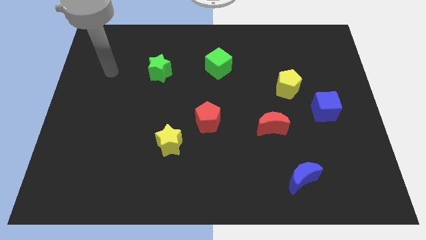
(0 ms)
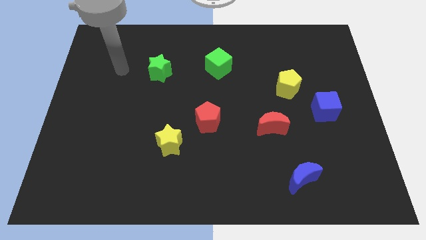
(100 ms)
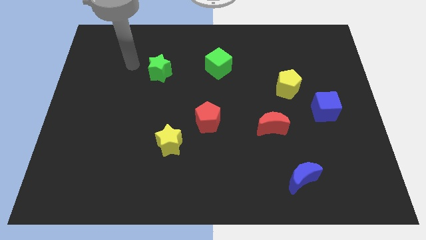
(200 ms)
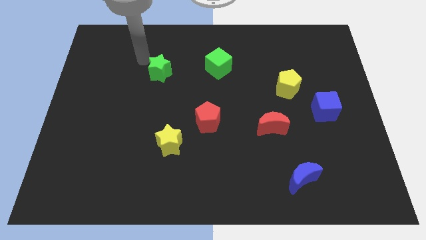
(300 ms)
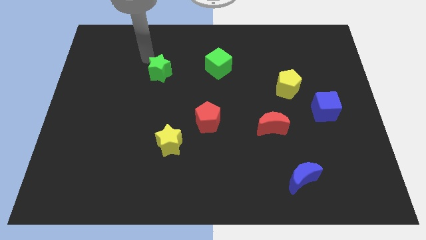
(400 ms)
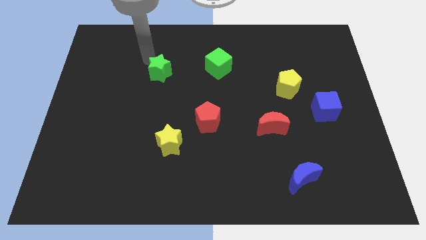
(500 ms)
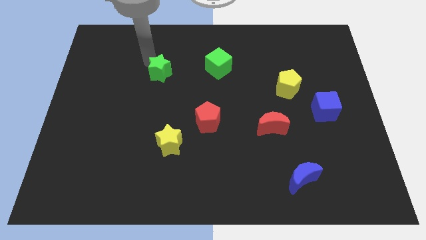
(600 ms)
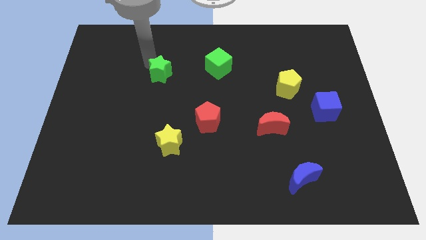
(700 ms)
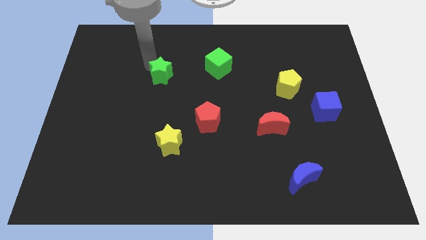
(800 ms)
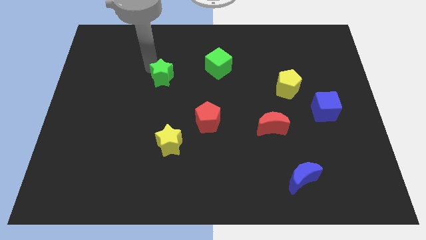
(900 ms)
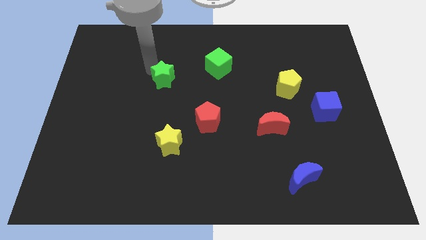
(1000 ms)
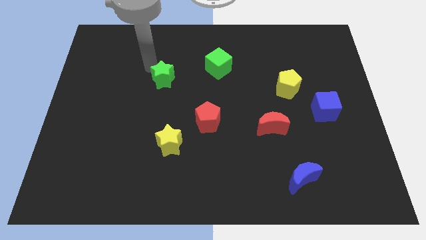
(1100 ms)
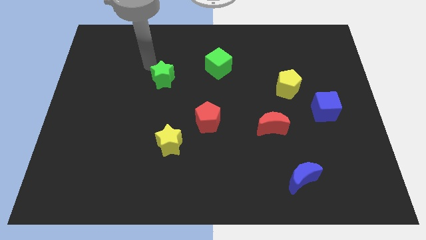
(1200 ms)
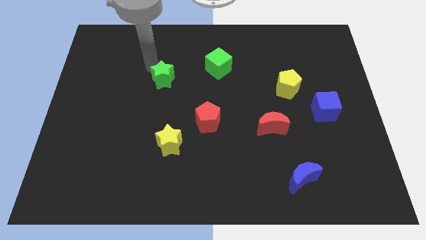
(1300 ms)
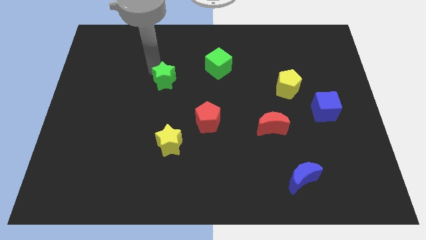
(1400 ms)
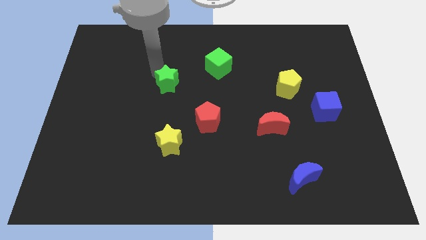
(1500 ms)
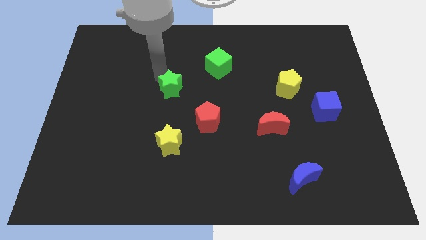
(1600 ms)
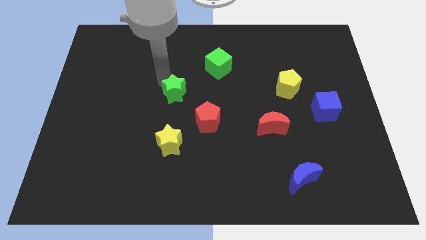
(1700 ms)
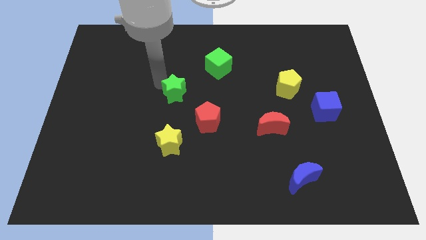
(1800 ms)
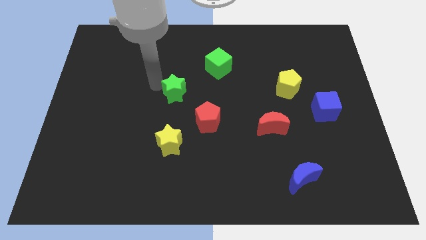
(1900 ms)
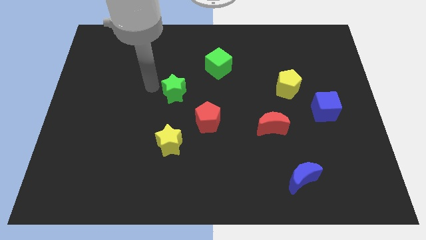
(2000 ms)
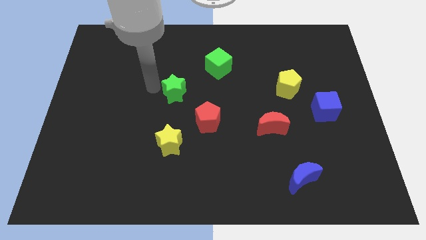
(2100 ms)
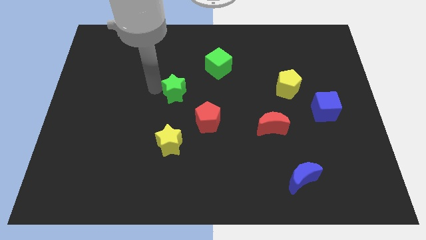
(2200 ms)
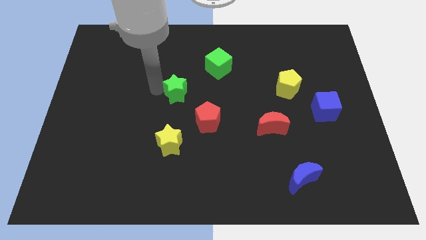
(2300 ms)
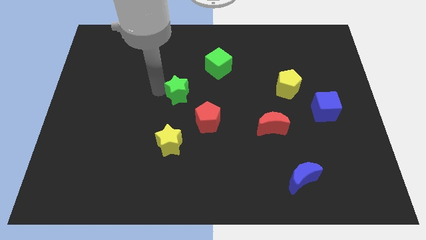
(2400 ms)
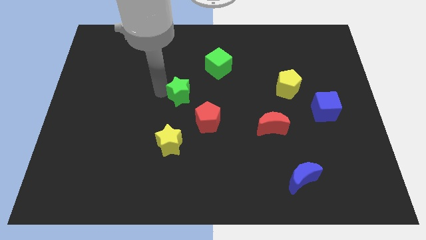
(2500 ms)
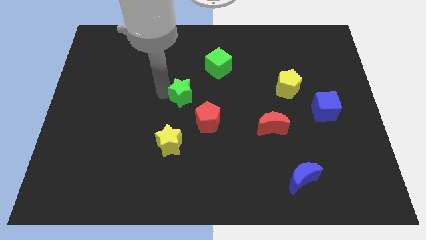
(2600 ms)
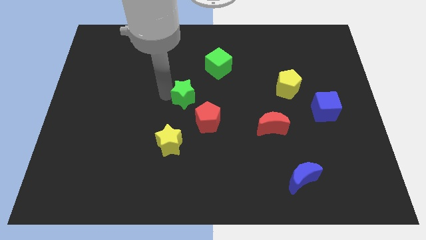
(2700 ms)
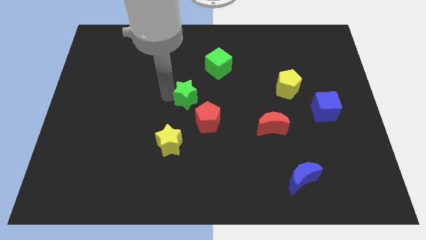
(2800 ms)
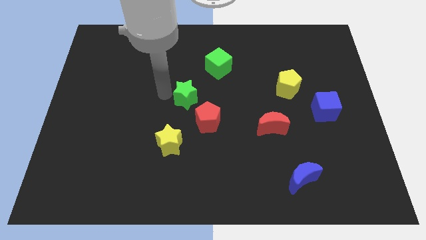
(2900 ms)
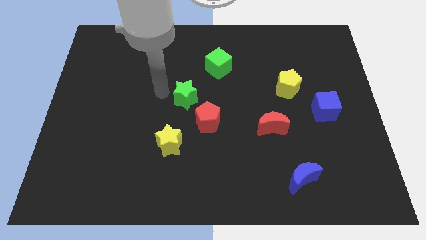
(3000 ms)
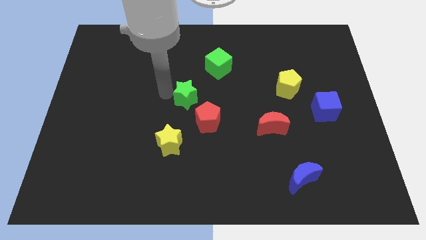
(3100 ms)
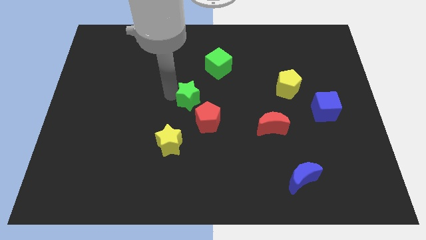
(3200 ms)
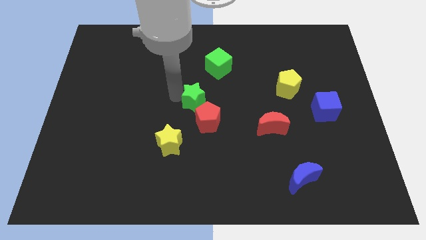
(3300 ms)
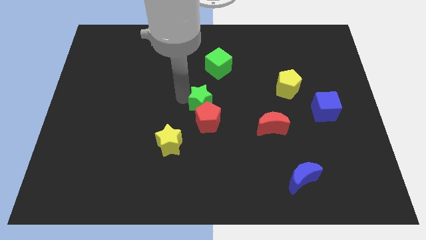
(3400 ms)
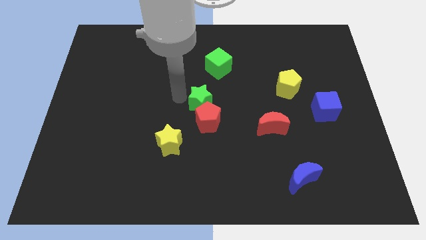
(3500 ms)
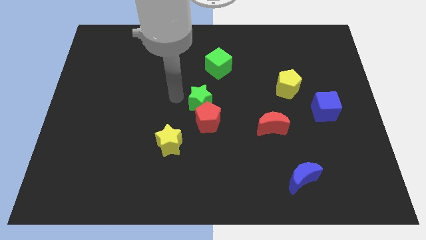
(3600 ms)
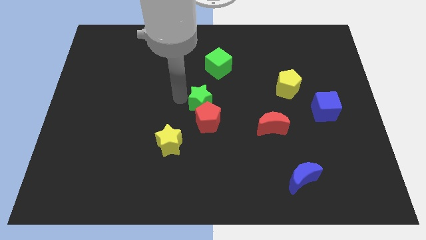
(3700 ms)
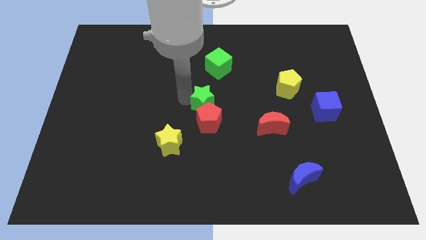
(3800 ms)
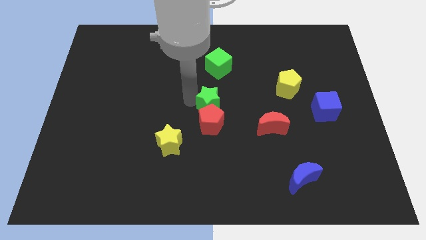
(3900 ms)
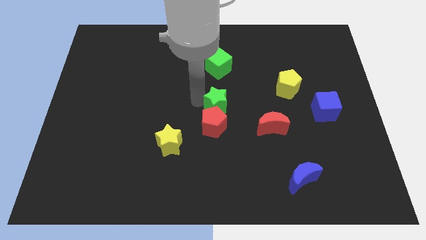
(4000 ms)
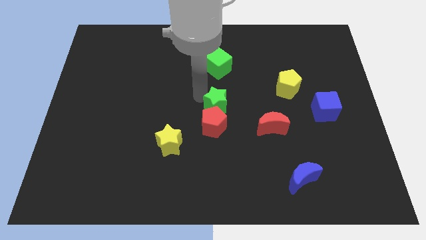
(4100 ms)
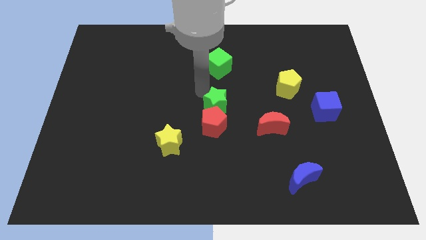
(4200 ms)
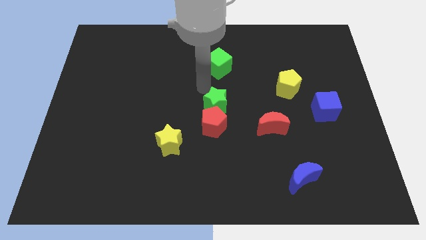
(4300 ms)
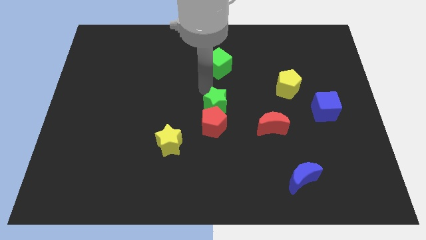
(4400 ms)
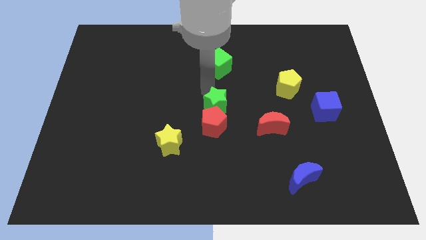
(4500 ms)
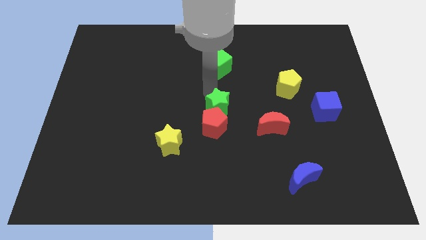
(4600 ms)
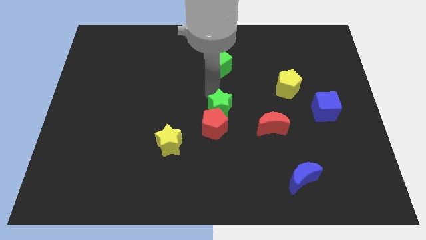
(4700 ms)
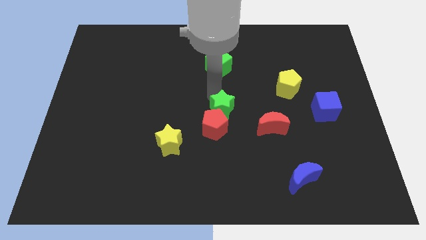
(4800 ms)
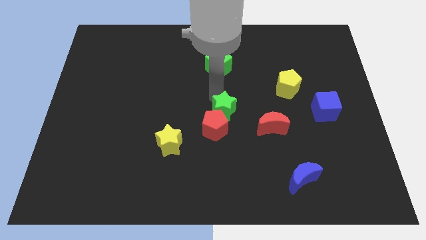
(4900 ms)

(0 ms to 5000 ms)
push the green star down and to the right

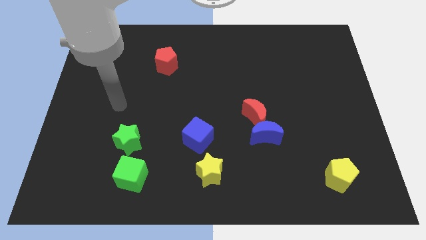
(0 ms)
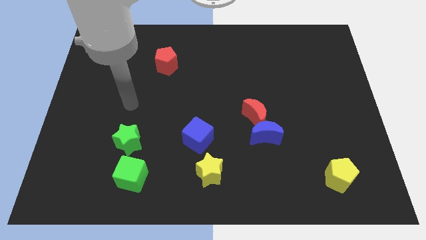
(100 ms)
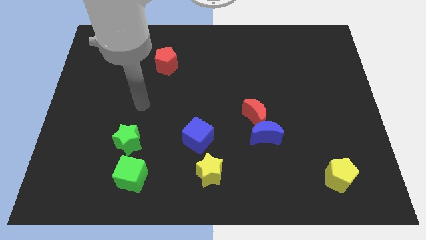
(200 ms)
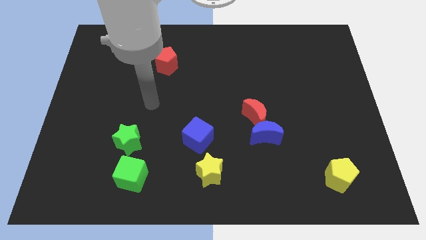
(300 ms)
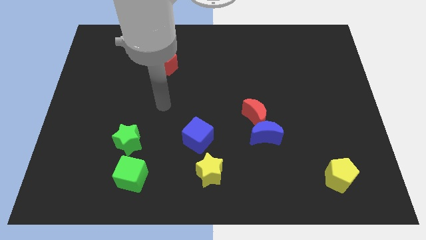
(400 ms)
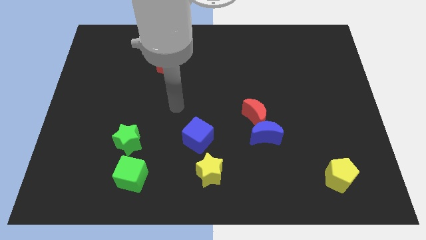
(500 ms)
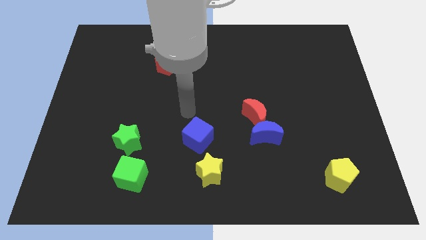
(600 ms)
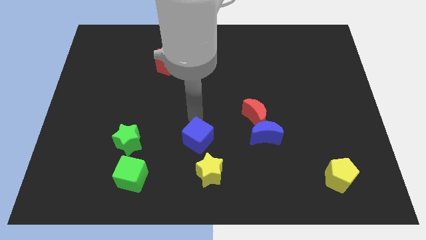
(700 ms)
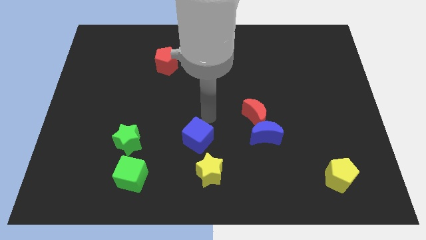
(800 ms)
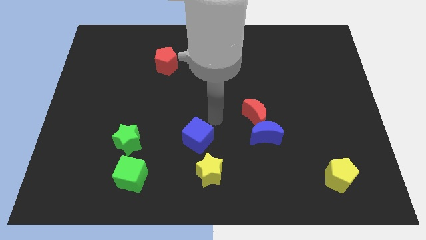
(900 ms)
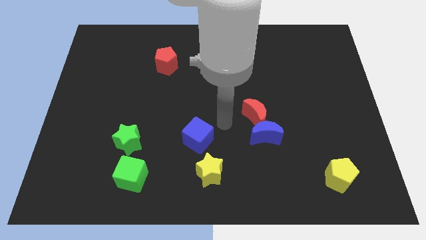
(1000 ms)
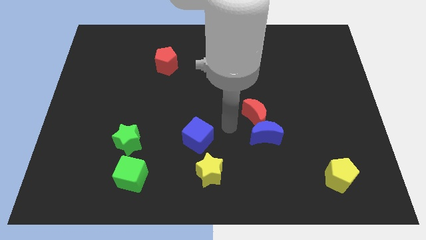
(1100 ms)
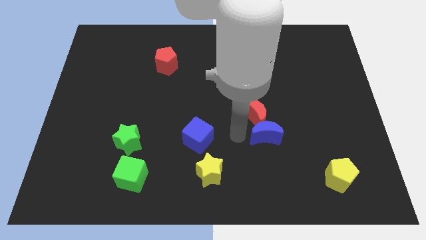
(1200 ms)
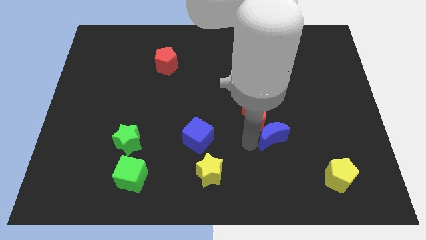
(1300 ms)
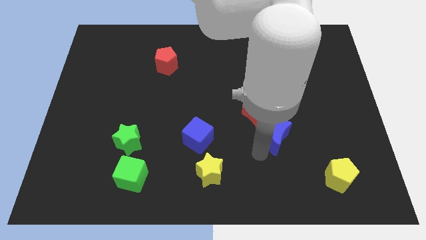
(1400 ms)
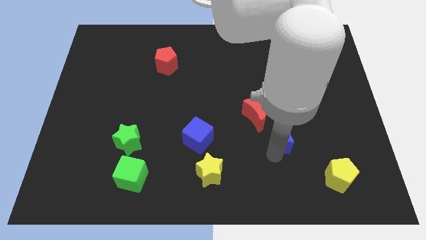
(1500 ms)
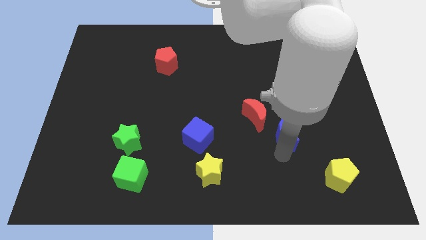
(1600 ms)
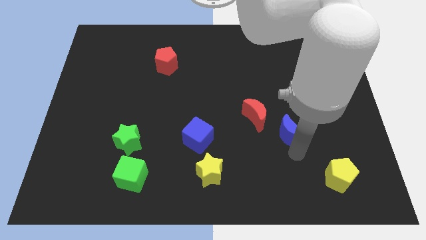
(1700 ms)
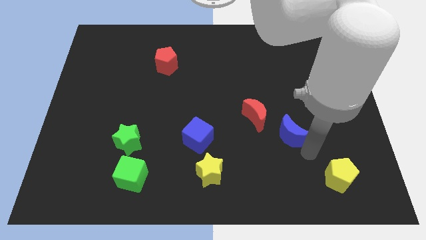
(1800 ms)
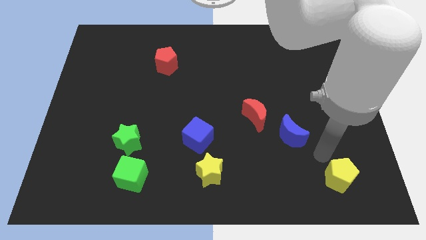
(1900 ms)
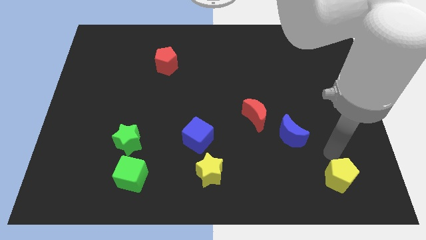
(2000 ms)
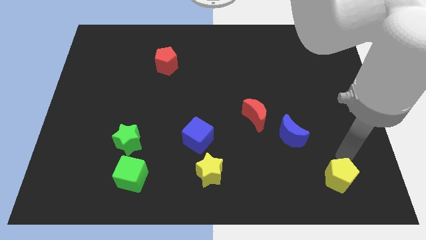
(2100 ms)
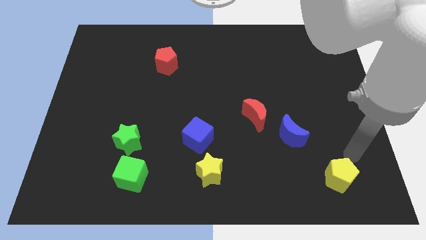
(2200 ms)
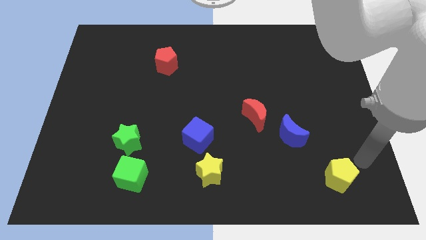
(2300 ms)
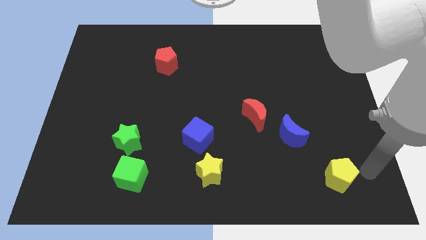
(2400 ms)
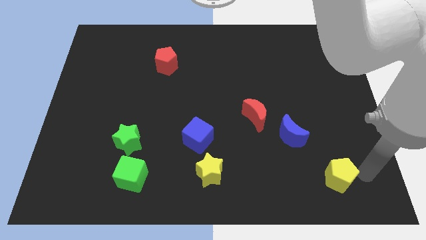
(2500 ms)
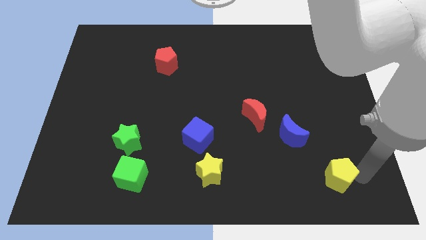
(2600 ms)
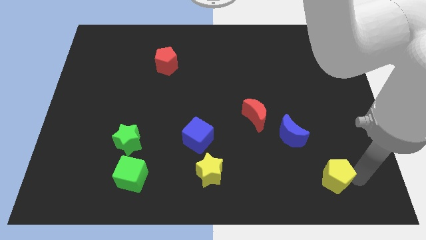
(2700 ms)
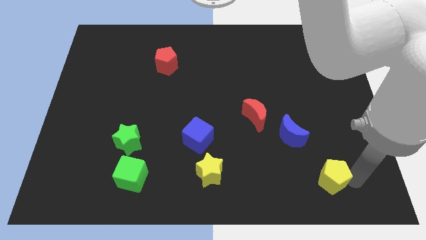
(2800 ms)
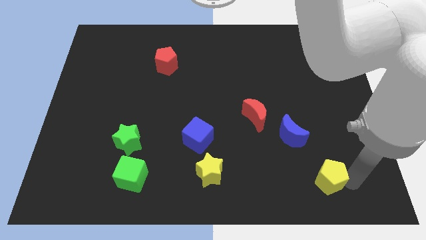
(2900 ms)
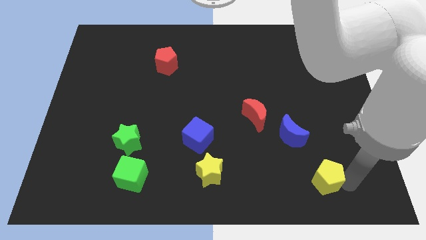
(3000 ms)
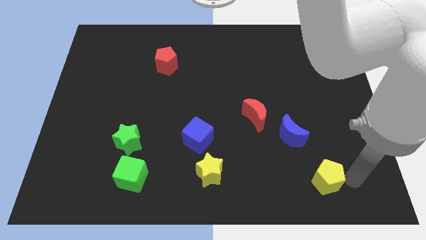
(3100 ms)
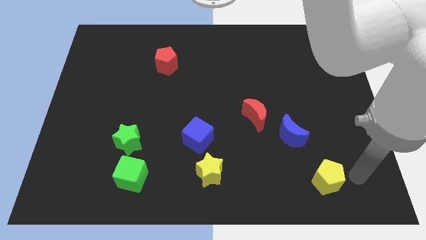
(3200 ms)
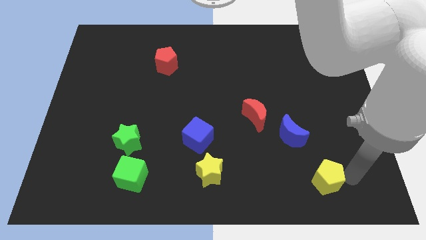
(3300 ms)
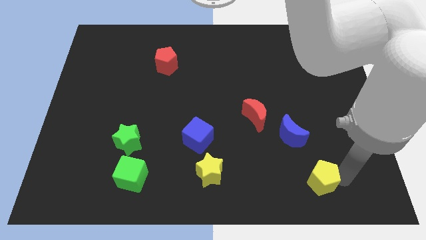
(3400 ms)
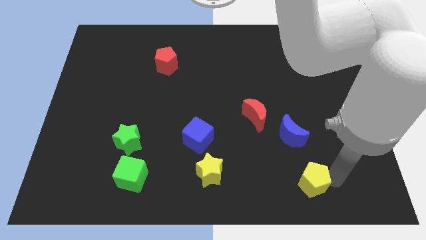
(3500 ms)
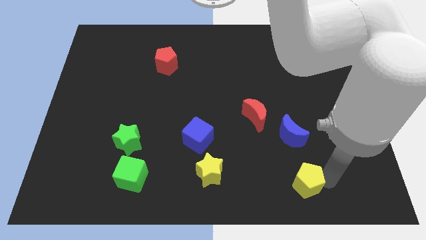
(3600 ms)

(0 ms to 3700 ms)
slightly push the yellow pentagon left
